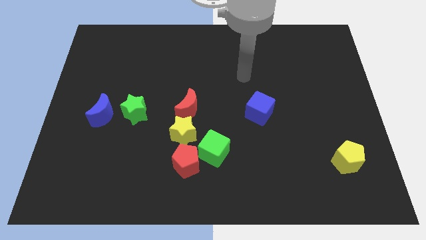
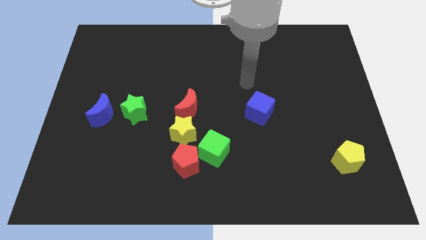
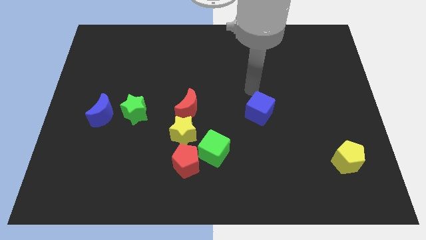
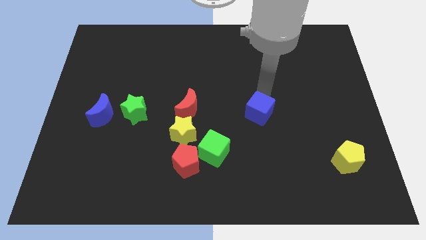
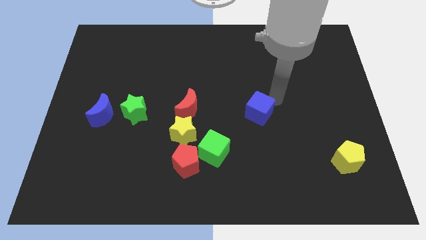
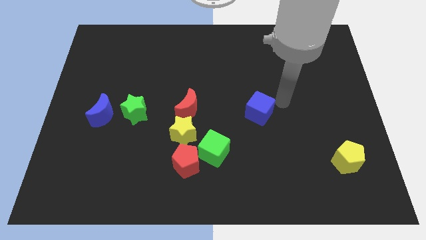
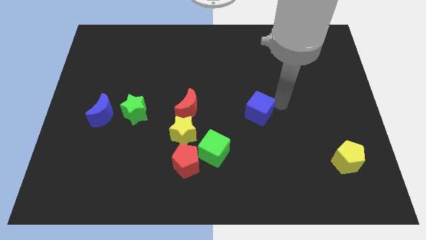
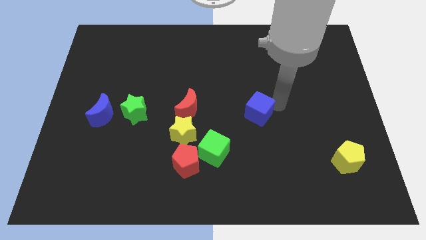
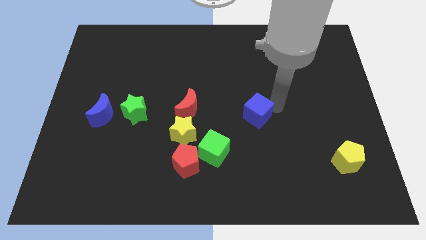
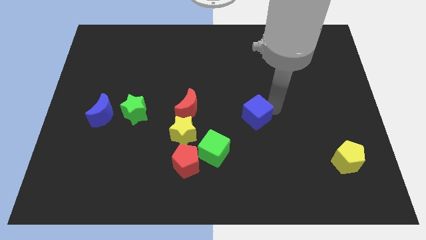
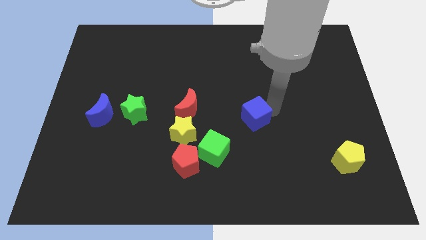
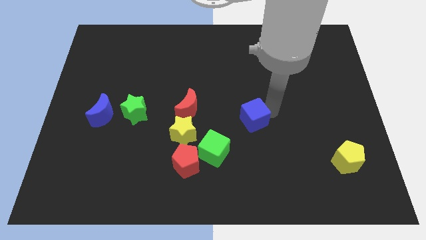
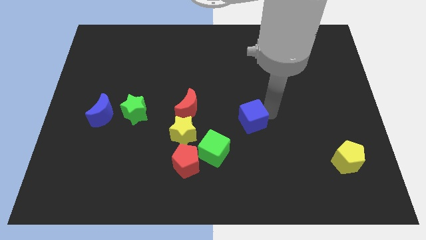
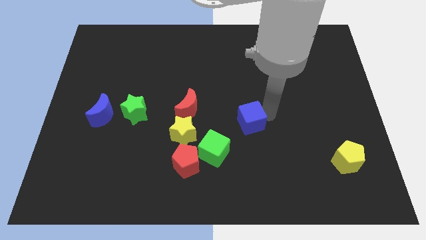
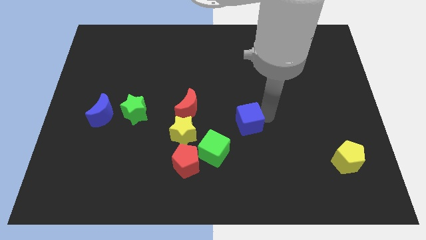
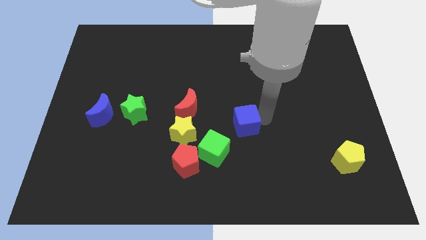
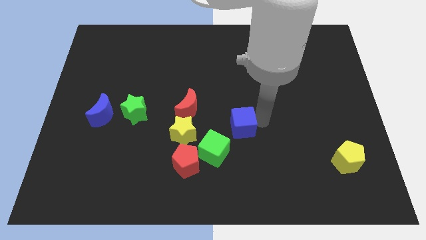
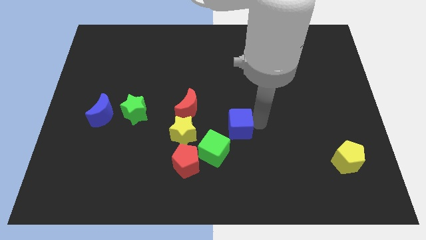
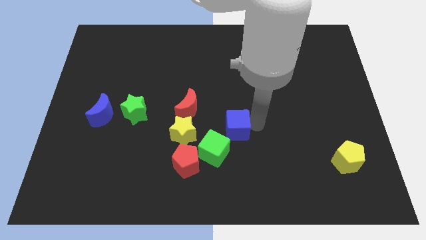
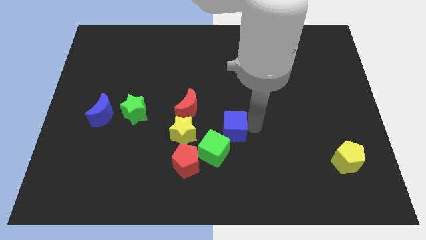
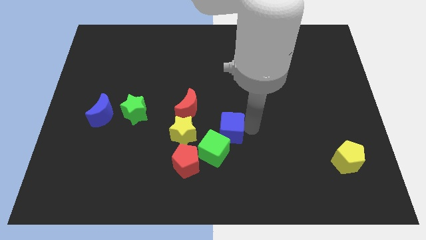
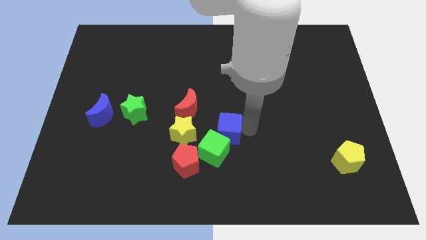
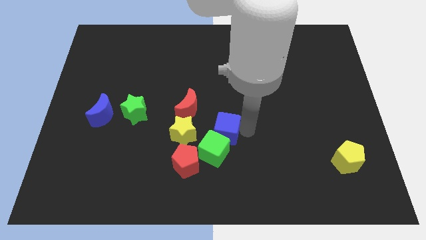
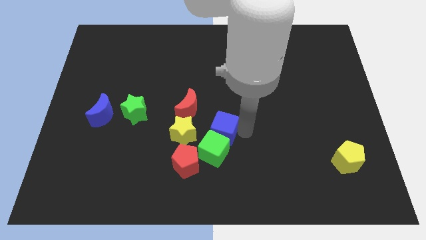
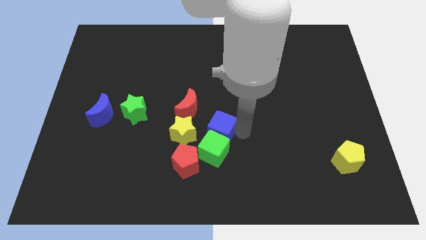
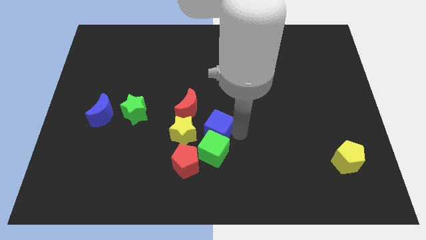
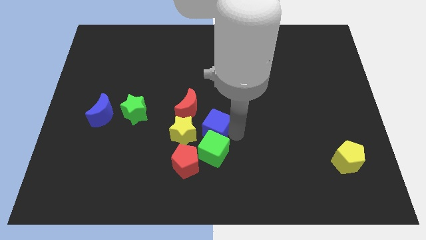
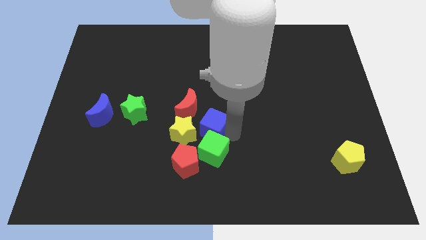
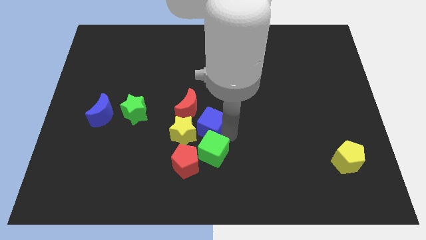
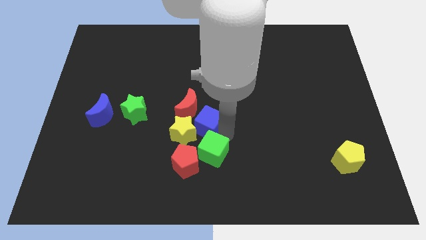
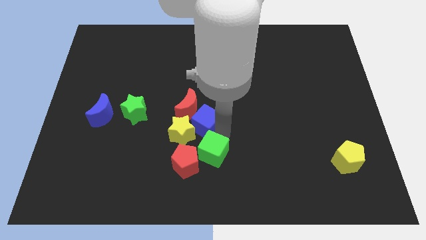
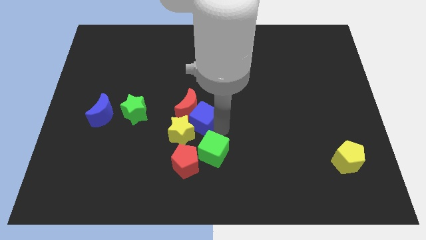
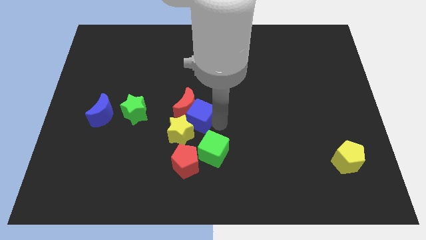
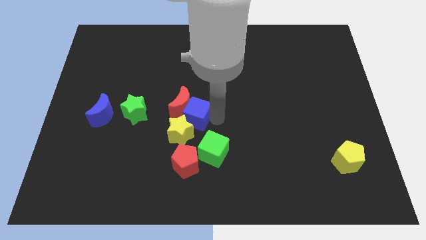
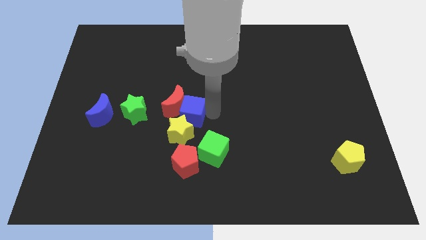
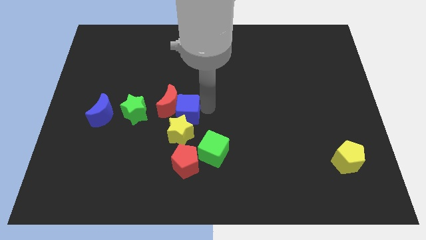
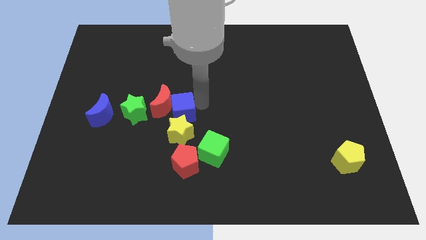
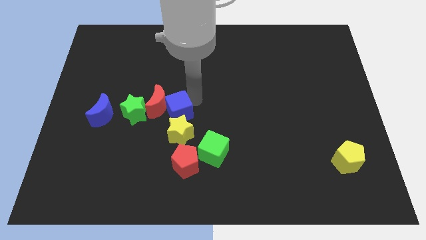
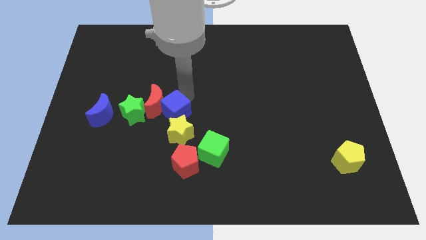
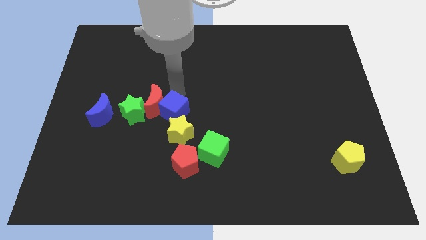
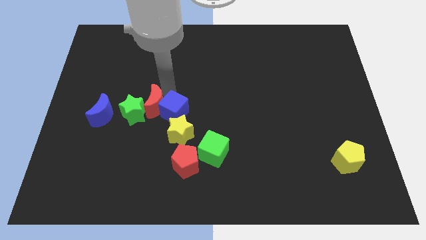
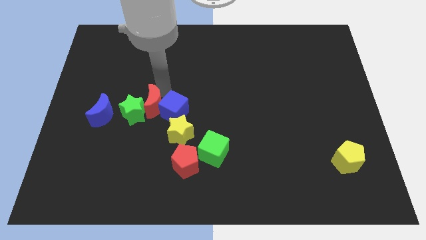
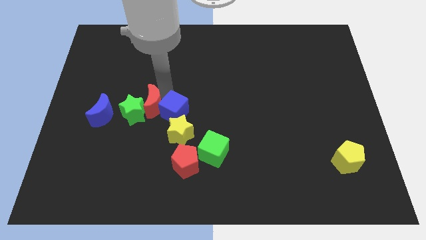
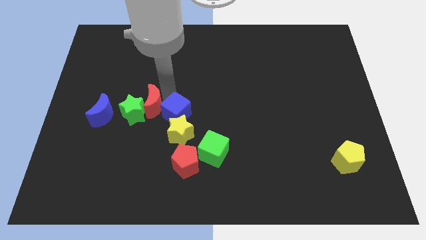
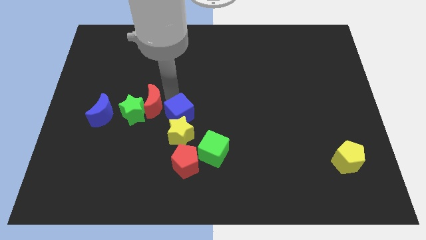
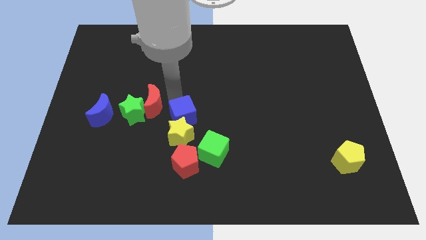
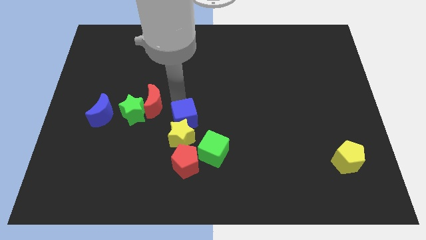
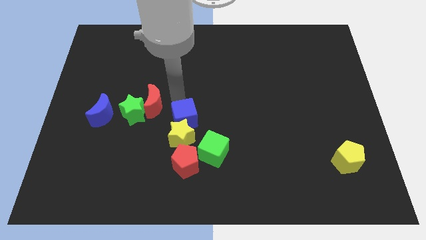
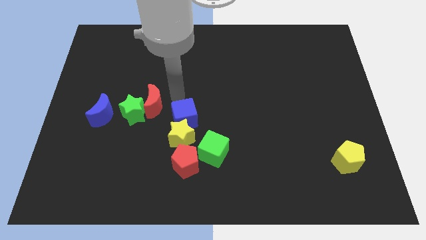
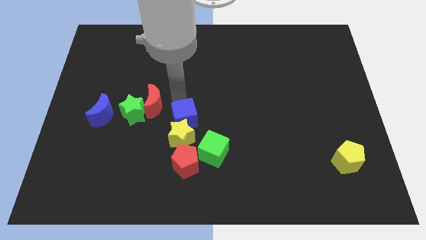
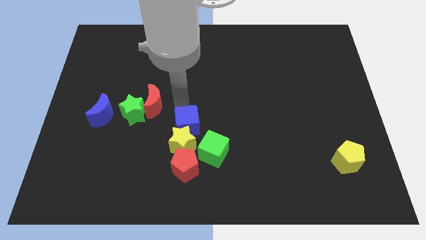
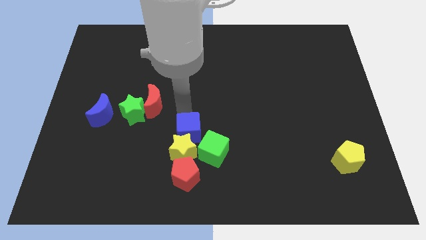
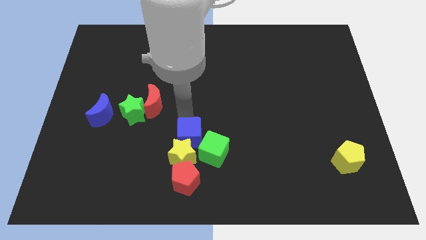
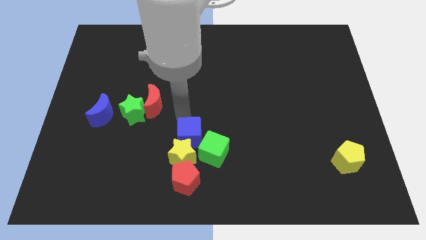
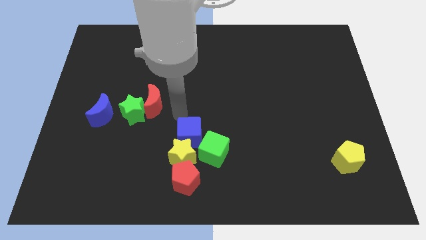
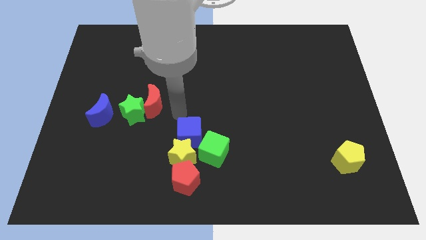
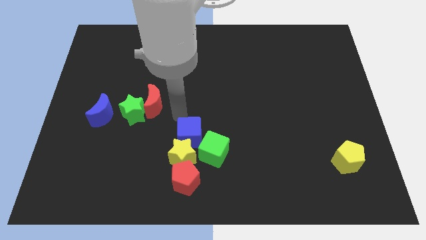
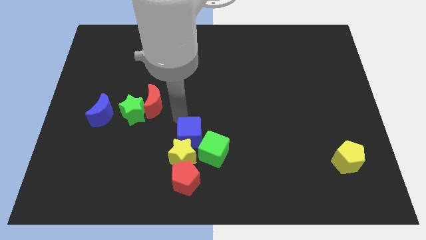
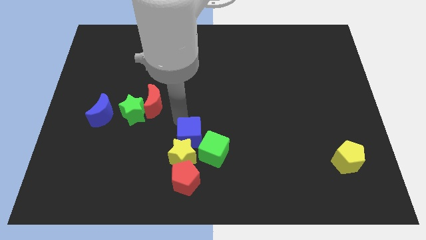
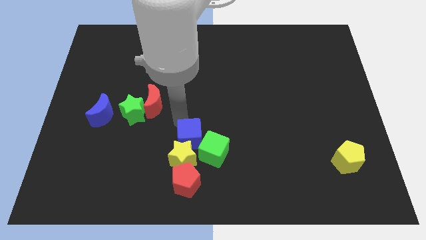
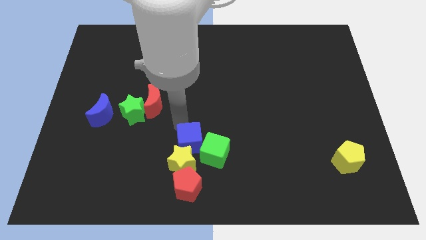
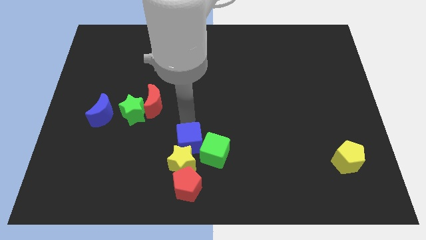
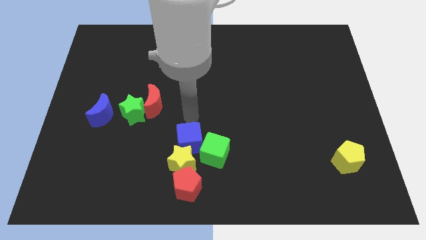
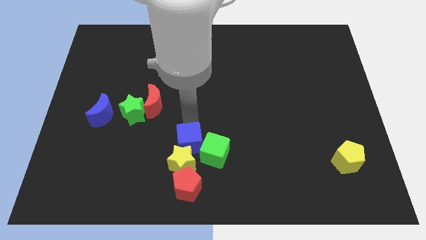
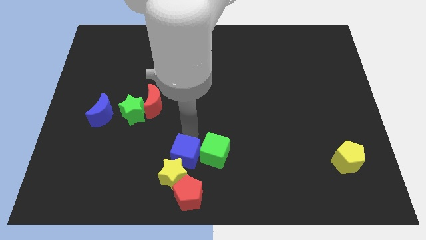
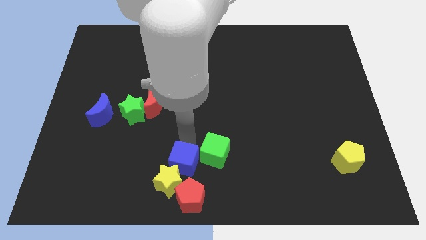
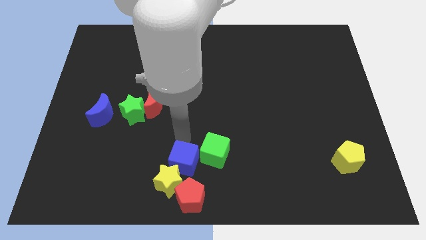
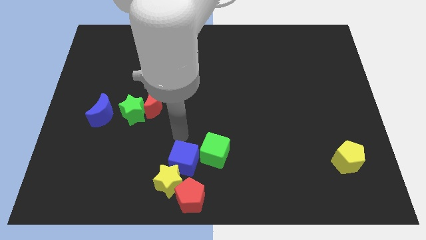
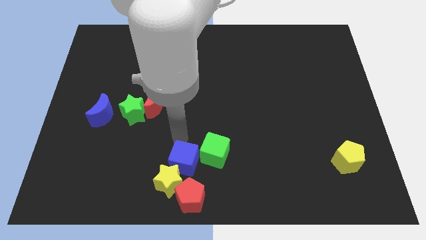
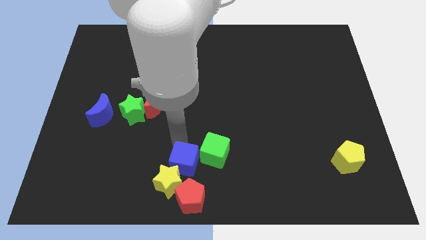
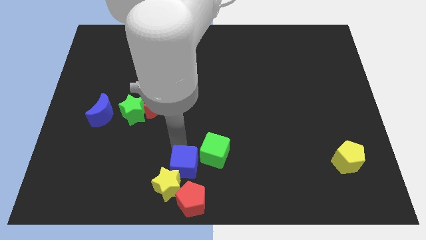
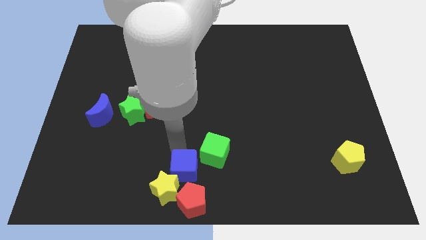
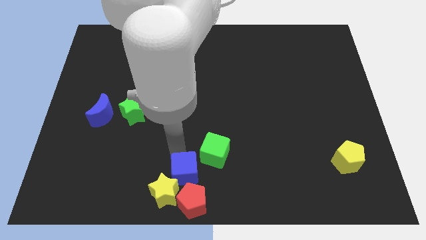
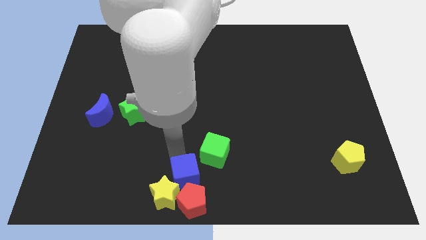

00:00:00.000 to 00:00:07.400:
move the blue cube to the red pentagon
